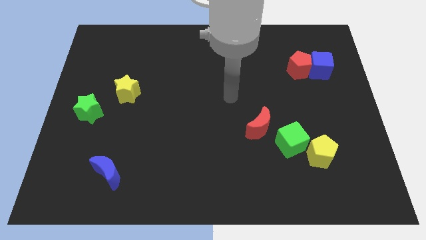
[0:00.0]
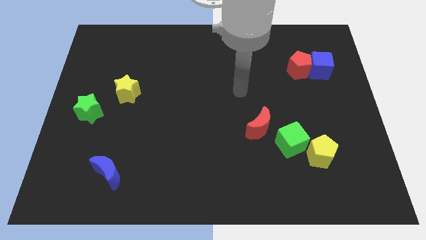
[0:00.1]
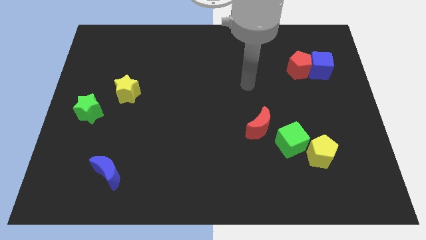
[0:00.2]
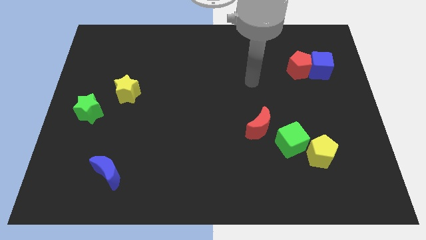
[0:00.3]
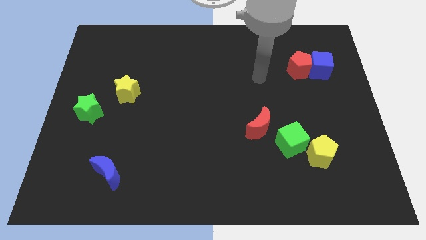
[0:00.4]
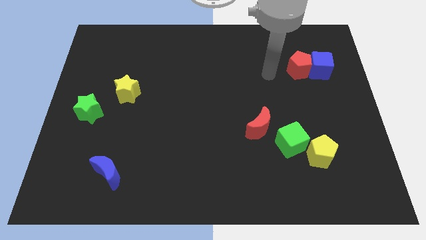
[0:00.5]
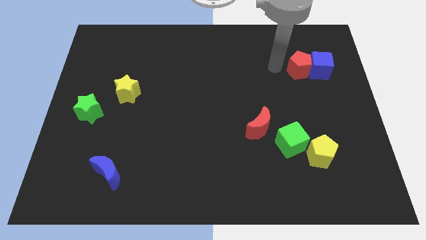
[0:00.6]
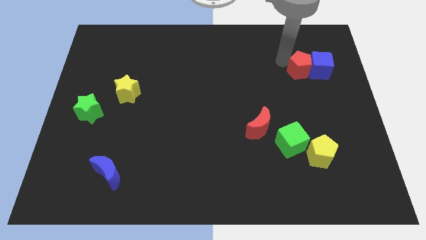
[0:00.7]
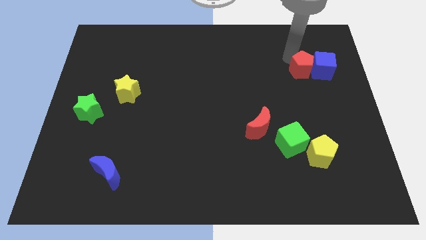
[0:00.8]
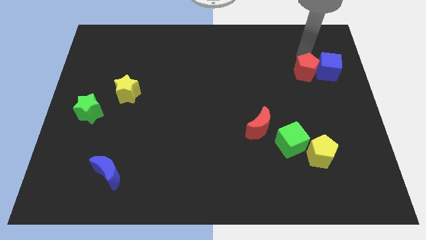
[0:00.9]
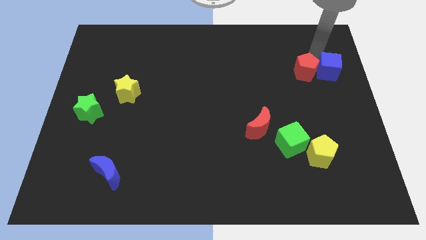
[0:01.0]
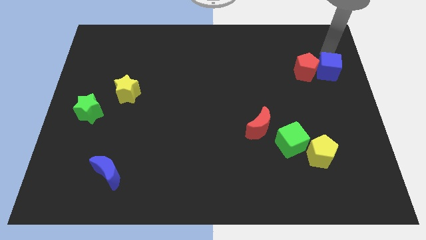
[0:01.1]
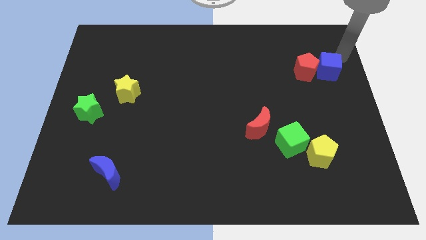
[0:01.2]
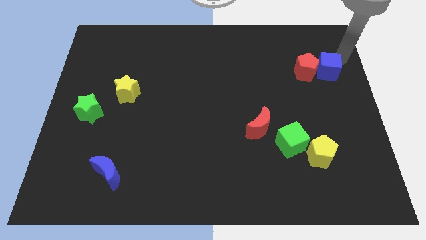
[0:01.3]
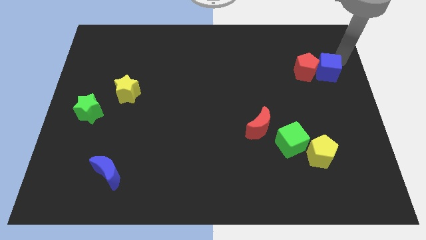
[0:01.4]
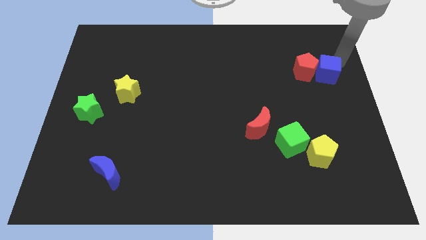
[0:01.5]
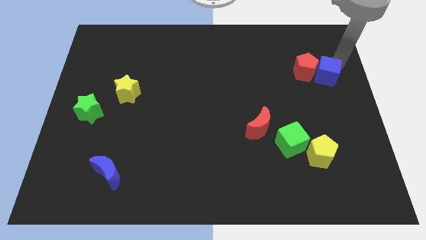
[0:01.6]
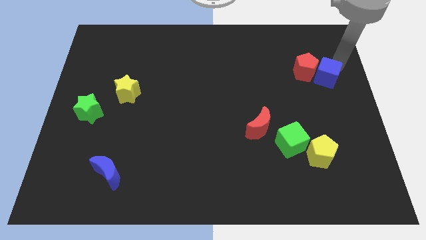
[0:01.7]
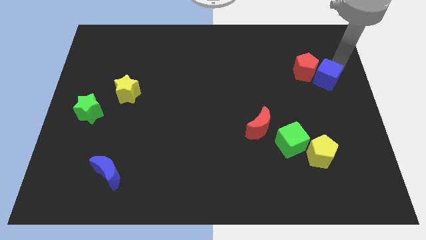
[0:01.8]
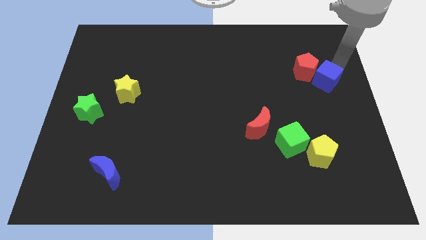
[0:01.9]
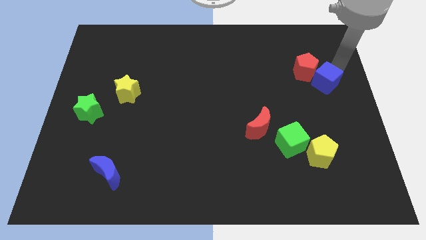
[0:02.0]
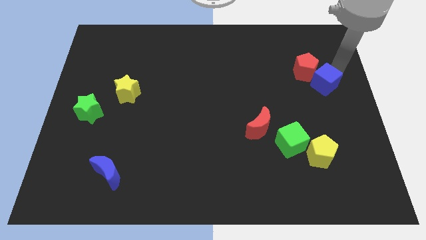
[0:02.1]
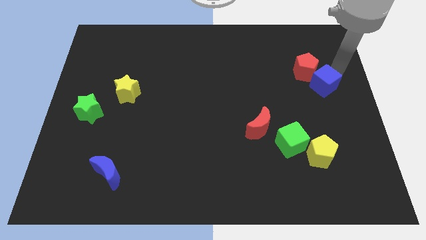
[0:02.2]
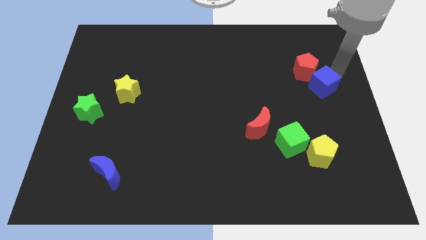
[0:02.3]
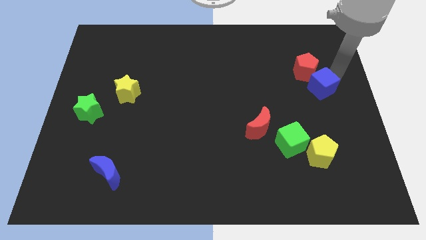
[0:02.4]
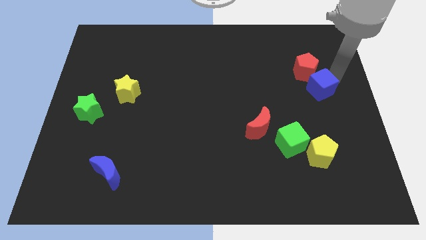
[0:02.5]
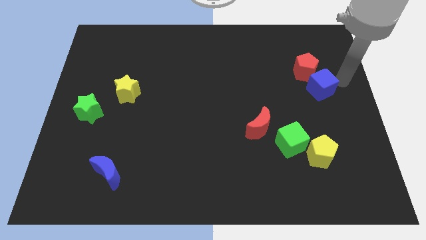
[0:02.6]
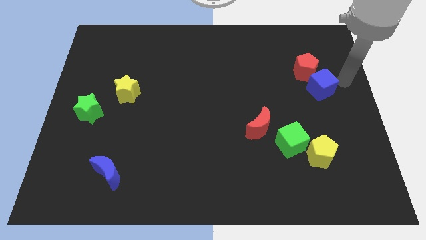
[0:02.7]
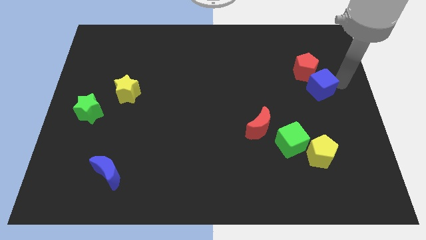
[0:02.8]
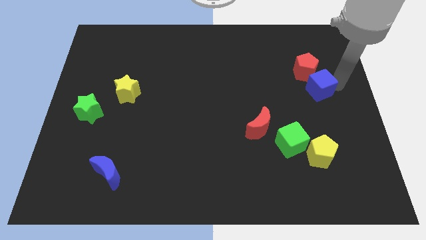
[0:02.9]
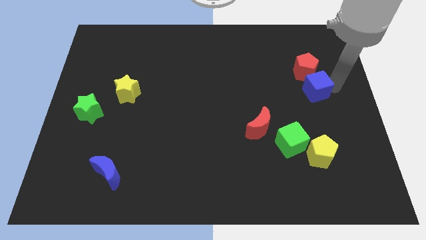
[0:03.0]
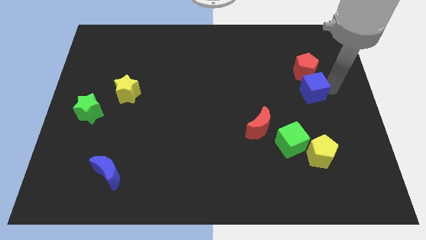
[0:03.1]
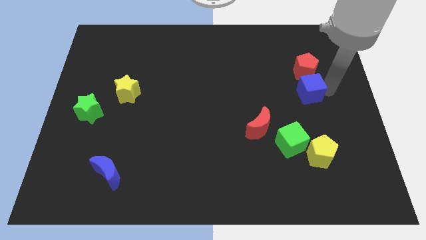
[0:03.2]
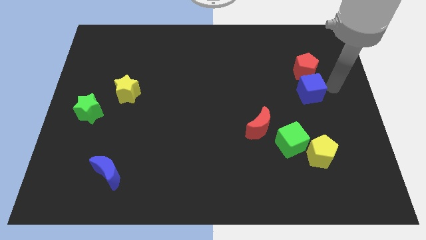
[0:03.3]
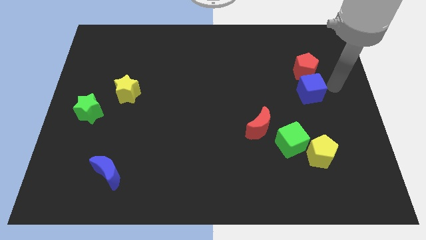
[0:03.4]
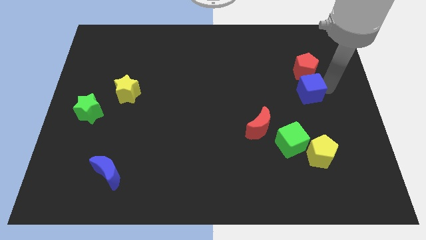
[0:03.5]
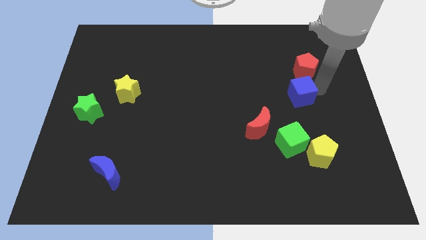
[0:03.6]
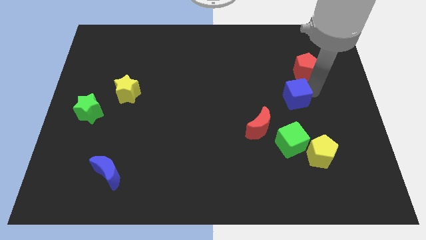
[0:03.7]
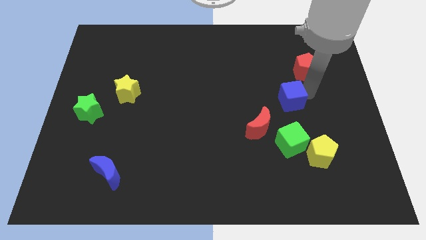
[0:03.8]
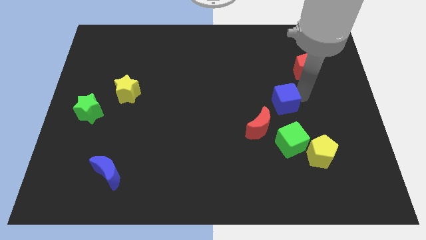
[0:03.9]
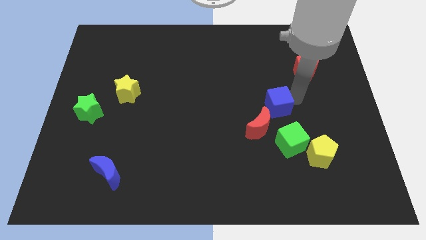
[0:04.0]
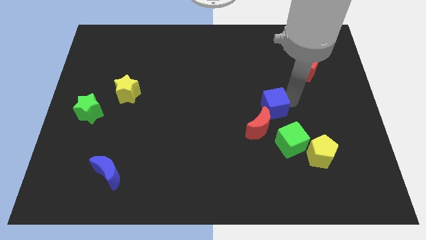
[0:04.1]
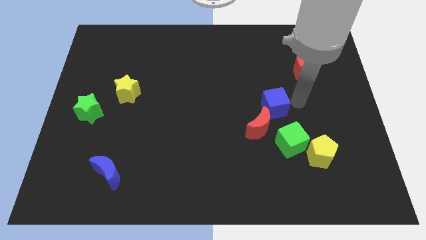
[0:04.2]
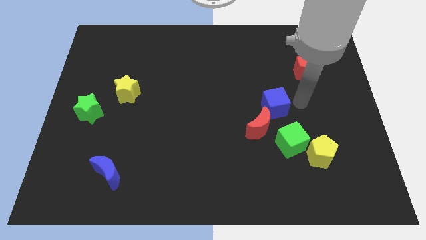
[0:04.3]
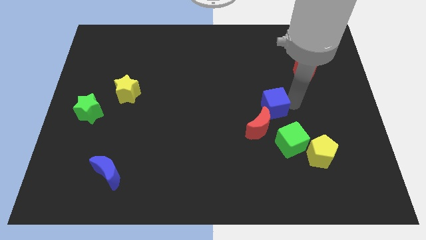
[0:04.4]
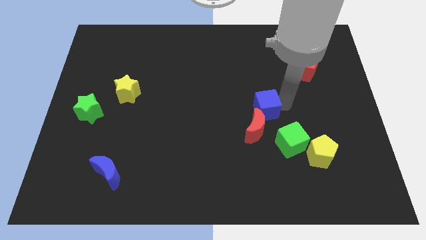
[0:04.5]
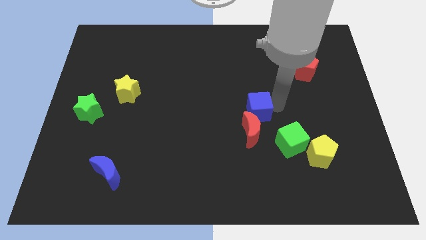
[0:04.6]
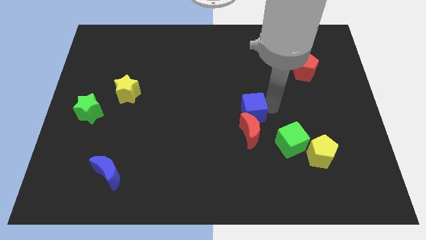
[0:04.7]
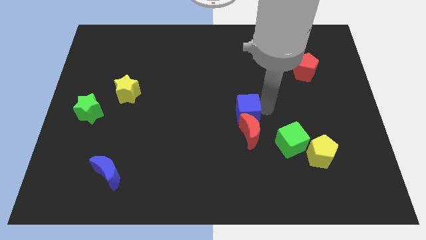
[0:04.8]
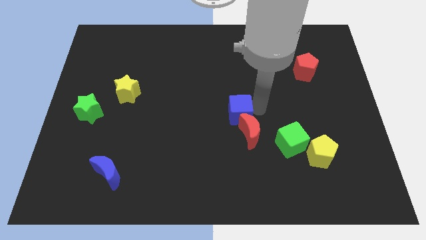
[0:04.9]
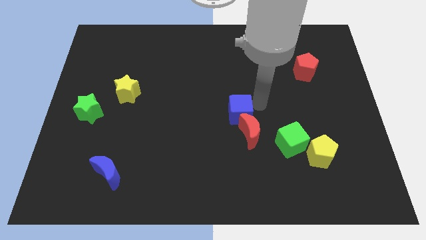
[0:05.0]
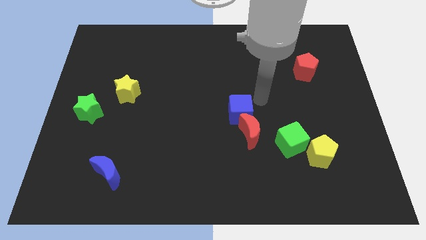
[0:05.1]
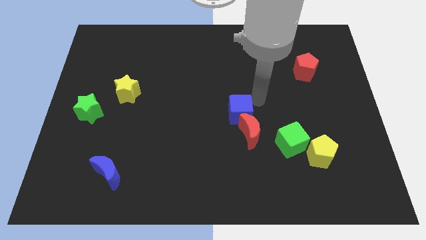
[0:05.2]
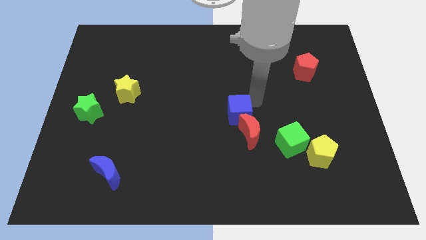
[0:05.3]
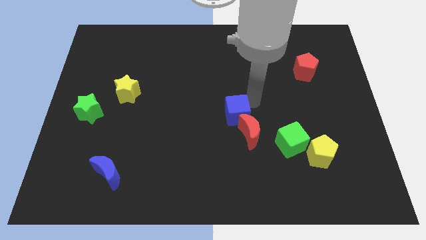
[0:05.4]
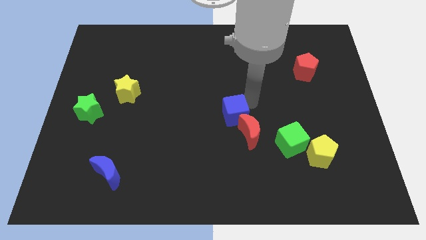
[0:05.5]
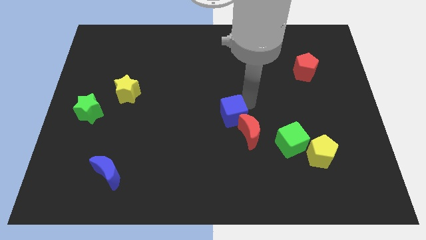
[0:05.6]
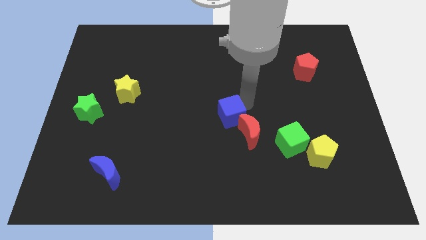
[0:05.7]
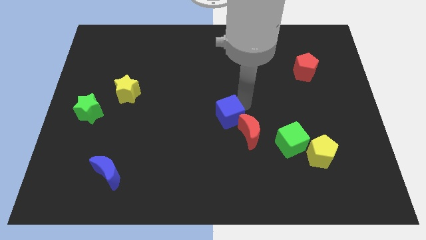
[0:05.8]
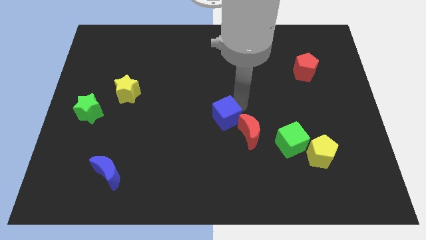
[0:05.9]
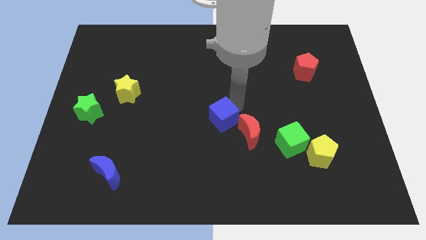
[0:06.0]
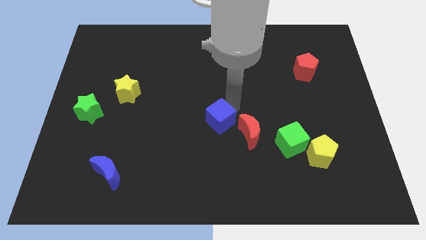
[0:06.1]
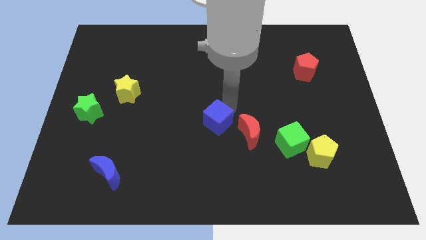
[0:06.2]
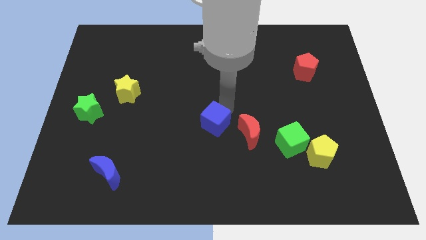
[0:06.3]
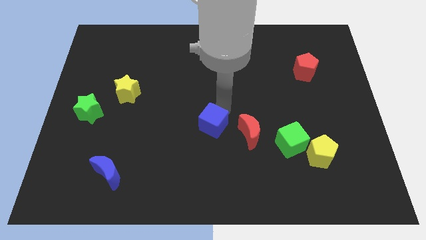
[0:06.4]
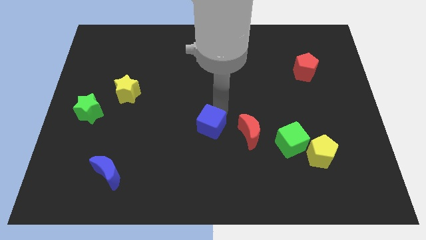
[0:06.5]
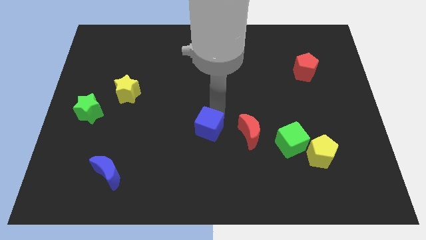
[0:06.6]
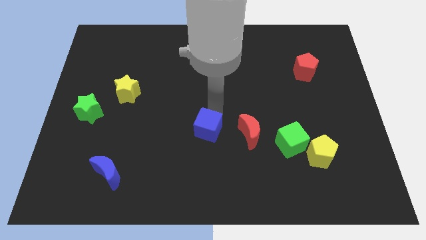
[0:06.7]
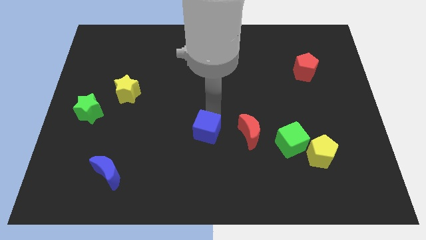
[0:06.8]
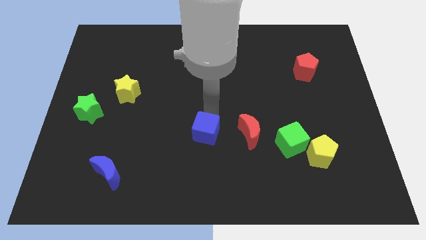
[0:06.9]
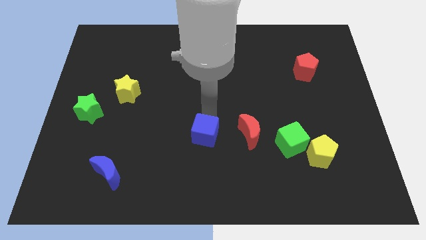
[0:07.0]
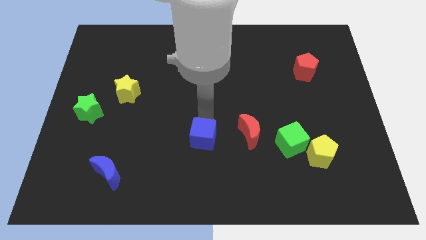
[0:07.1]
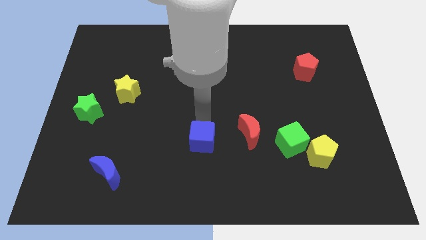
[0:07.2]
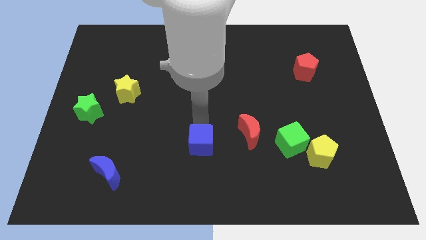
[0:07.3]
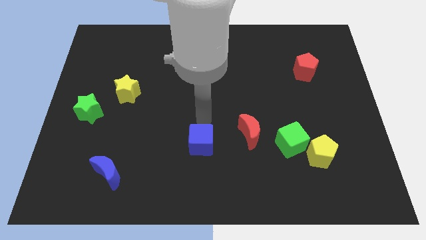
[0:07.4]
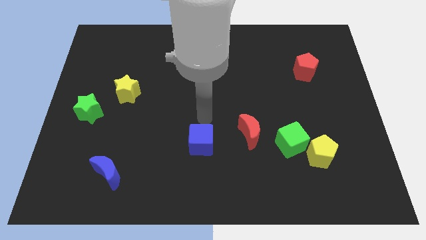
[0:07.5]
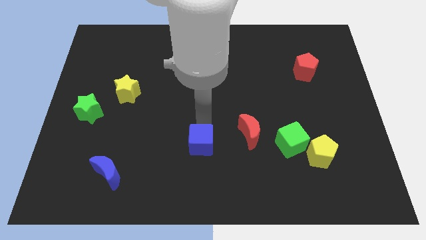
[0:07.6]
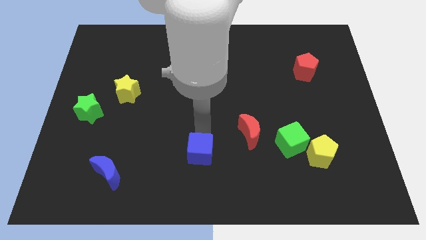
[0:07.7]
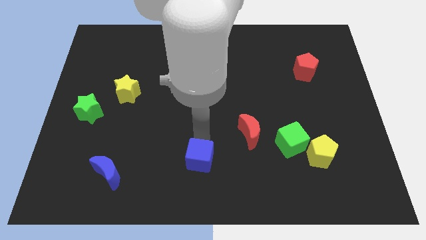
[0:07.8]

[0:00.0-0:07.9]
push the blue cube to the bottom
